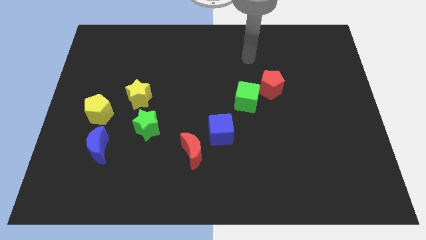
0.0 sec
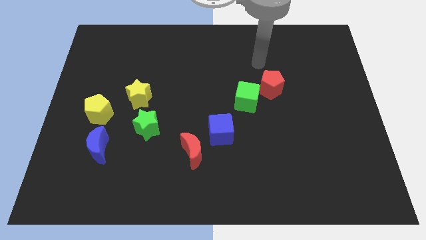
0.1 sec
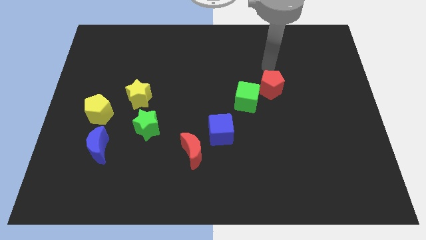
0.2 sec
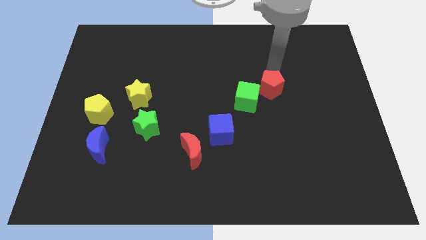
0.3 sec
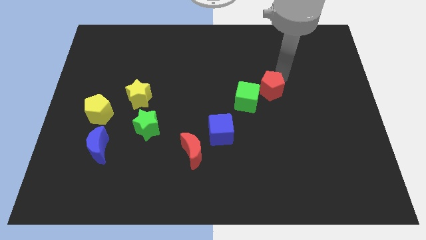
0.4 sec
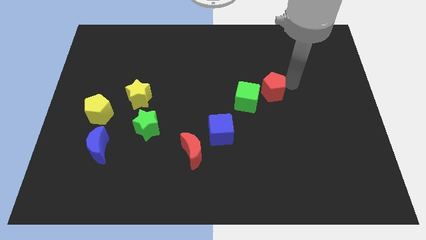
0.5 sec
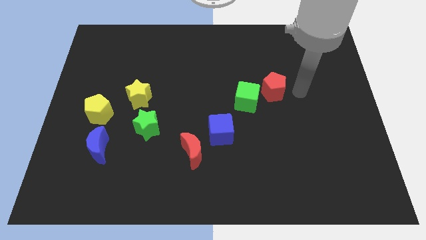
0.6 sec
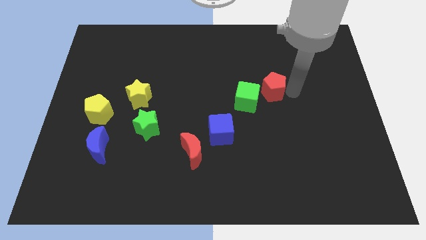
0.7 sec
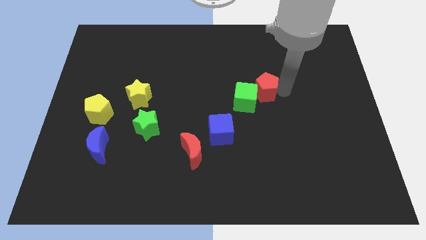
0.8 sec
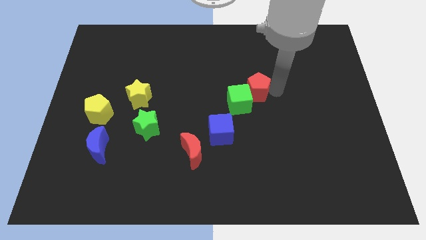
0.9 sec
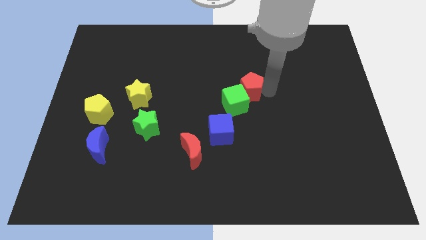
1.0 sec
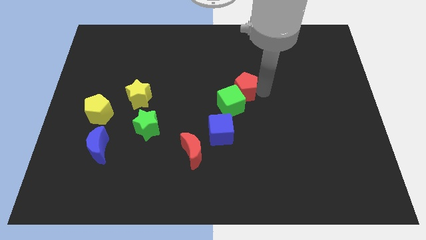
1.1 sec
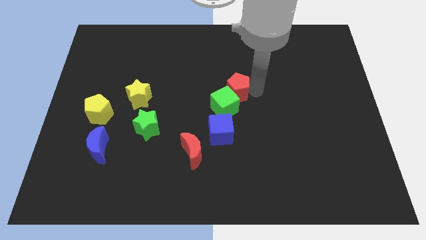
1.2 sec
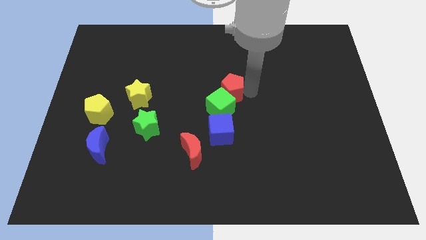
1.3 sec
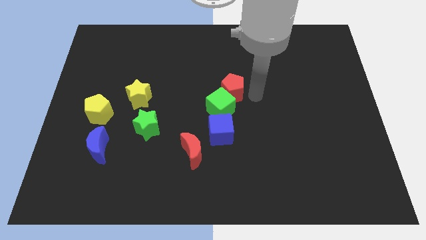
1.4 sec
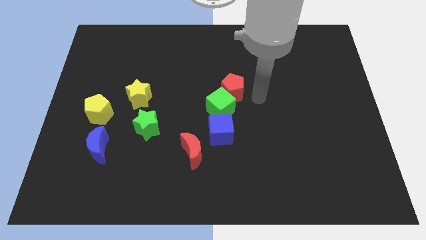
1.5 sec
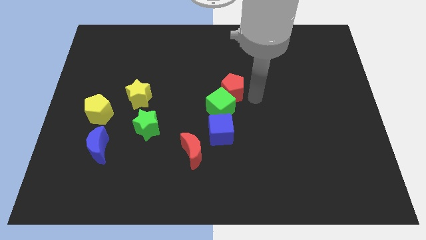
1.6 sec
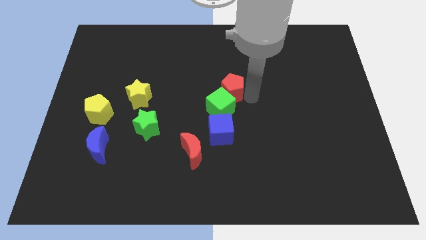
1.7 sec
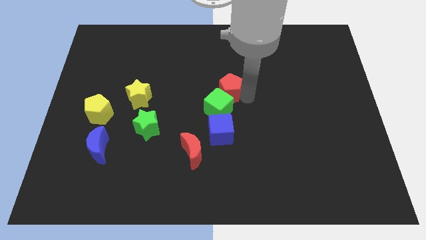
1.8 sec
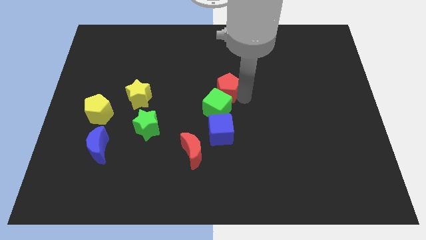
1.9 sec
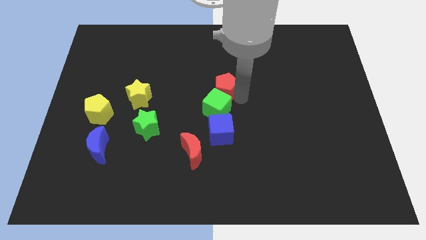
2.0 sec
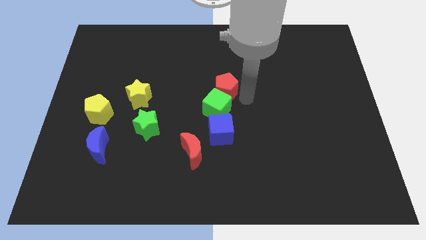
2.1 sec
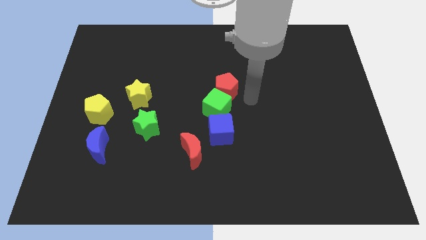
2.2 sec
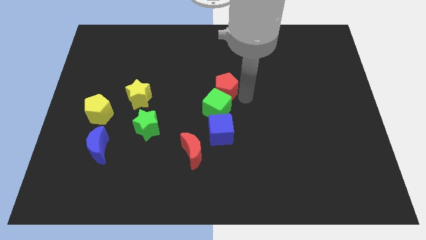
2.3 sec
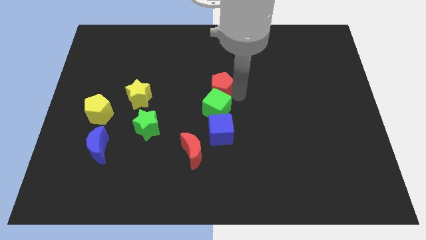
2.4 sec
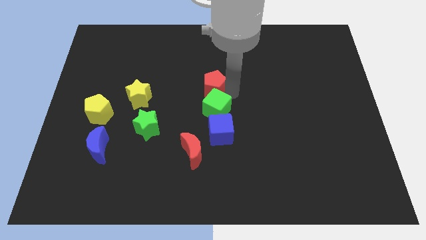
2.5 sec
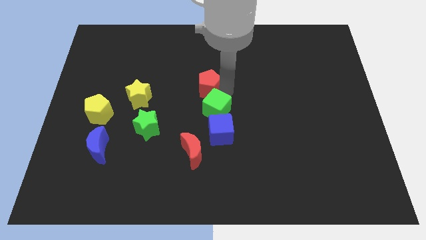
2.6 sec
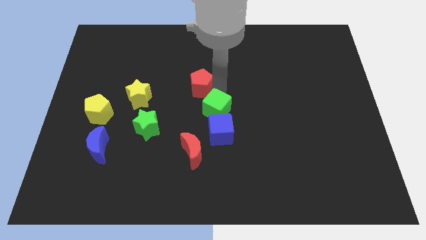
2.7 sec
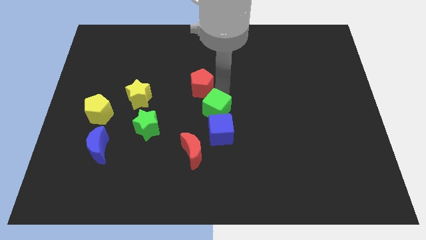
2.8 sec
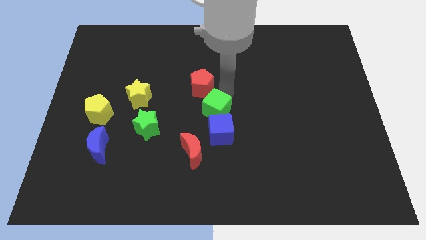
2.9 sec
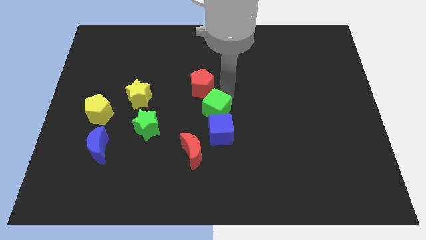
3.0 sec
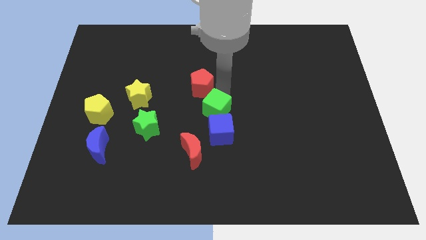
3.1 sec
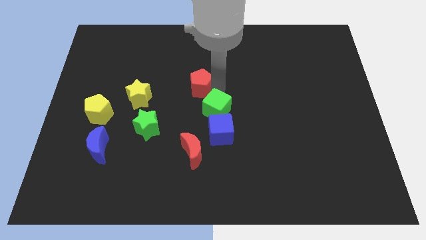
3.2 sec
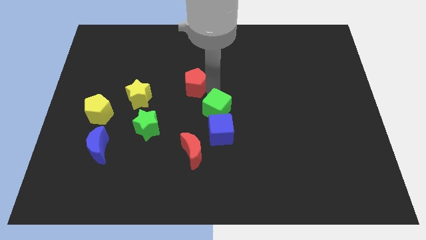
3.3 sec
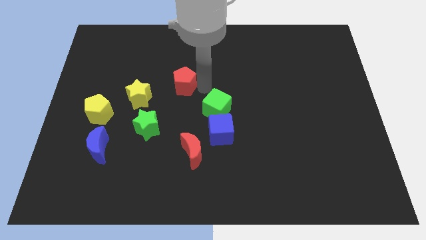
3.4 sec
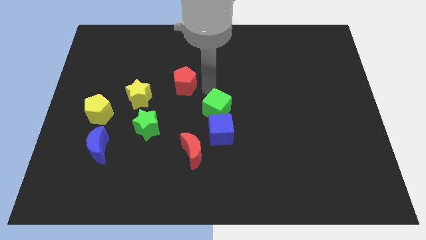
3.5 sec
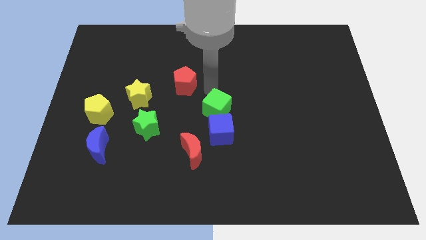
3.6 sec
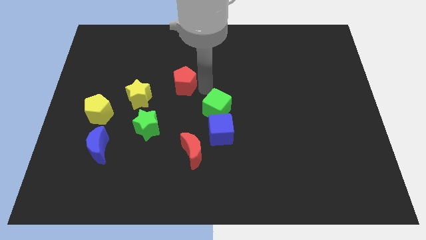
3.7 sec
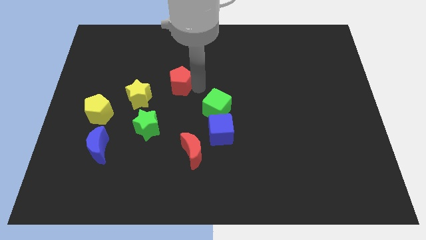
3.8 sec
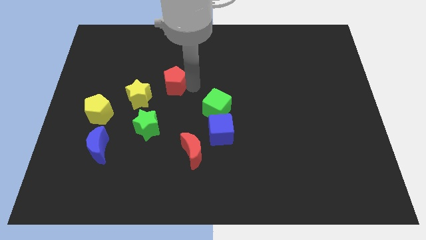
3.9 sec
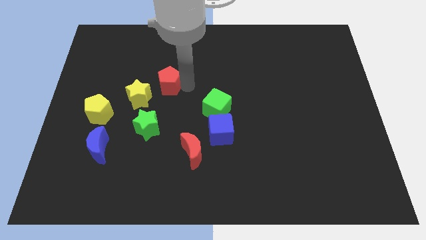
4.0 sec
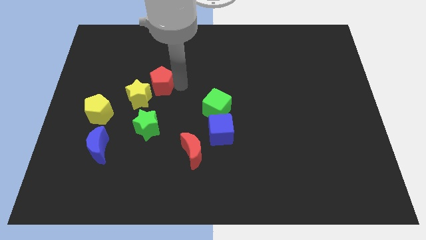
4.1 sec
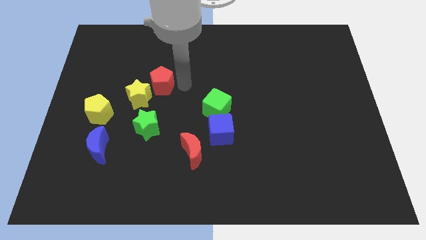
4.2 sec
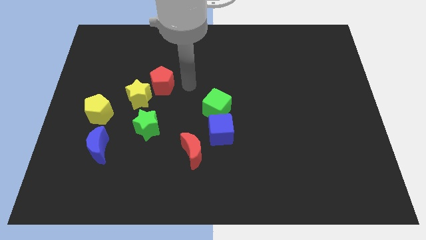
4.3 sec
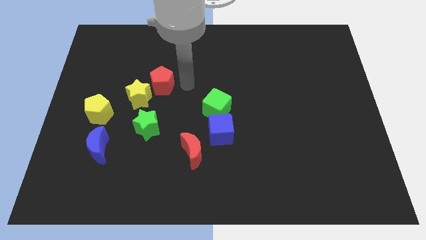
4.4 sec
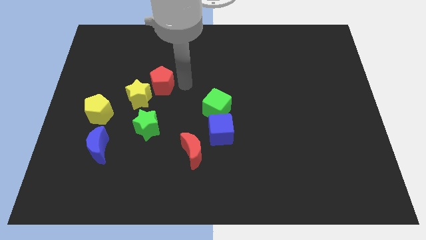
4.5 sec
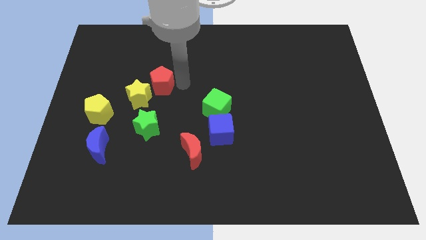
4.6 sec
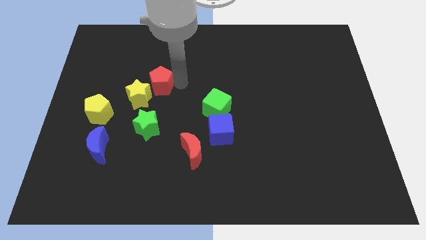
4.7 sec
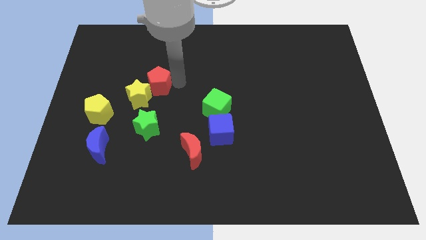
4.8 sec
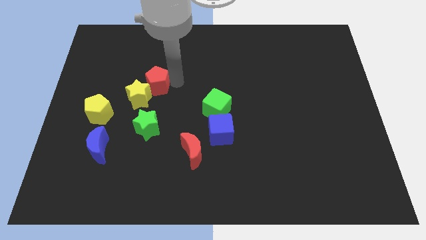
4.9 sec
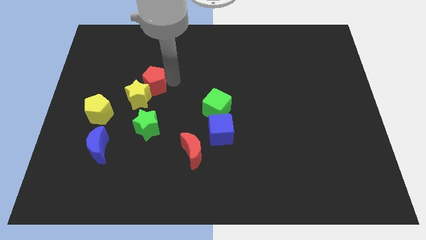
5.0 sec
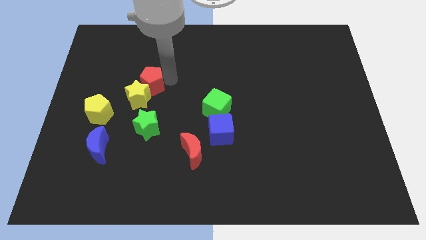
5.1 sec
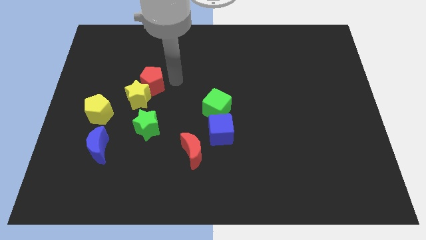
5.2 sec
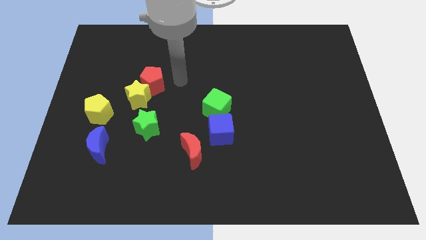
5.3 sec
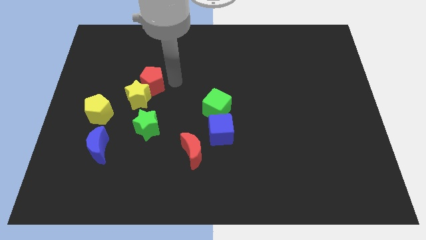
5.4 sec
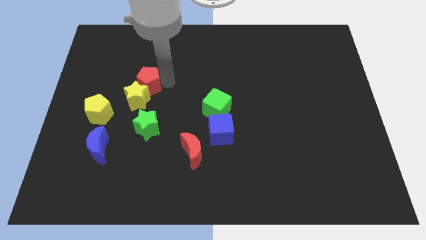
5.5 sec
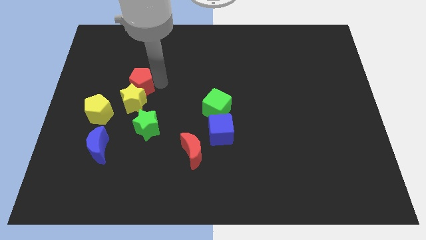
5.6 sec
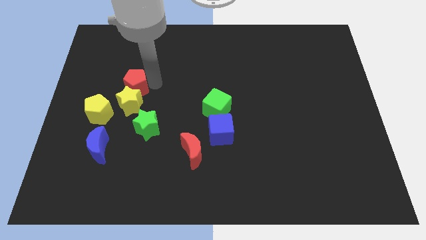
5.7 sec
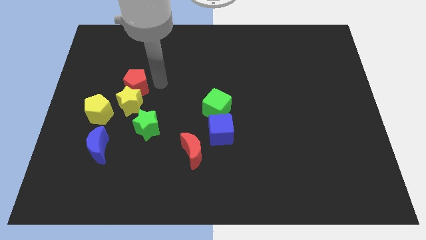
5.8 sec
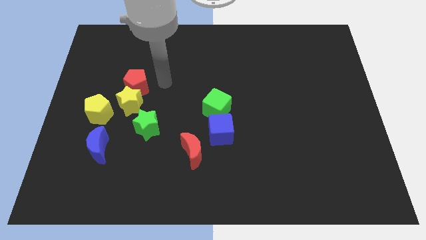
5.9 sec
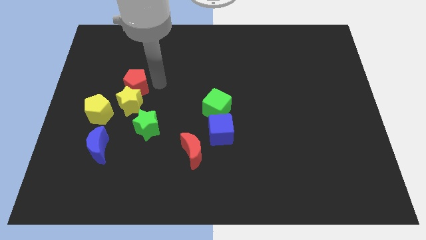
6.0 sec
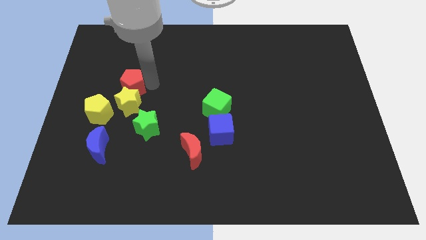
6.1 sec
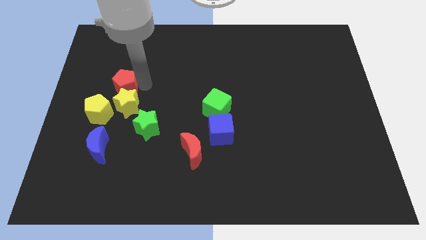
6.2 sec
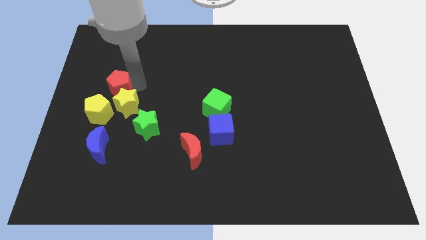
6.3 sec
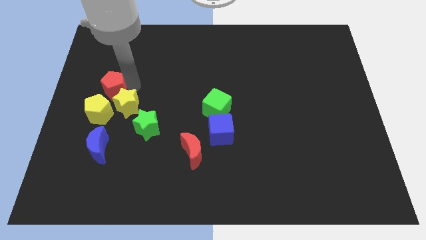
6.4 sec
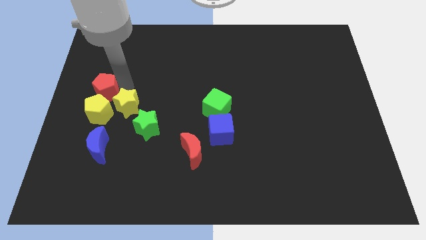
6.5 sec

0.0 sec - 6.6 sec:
move the red pentagon to the left side
